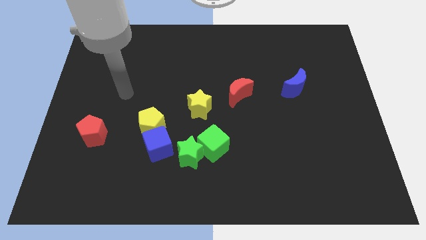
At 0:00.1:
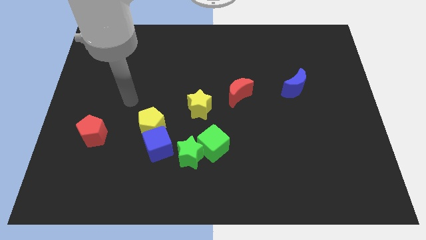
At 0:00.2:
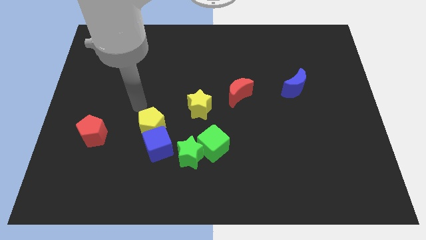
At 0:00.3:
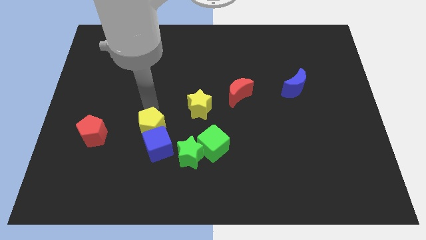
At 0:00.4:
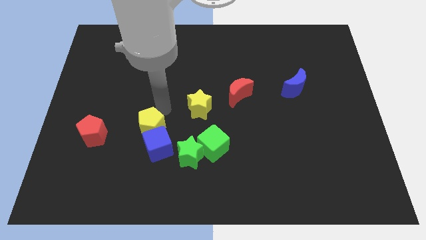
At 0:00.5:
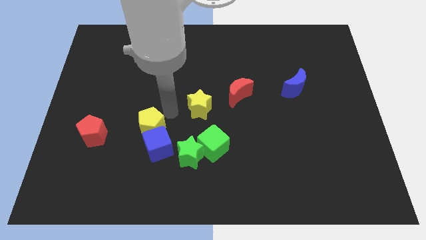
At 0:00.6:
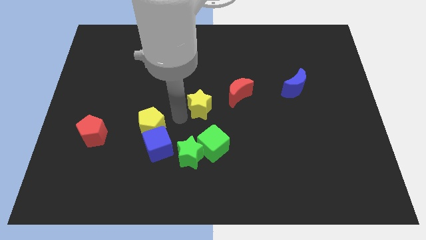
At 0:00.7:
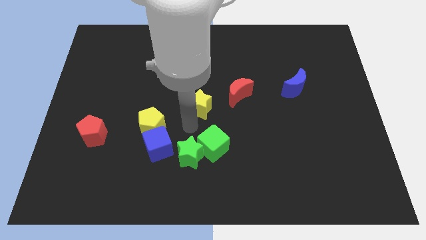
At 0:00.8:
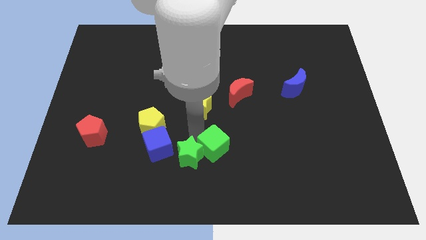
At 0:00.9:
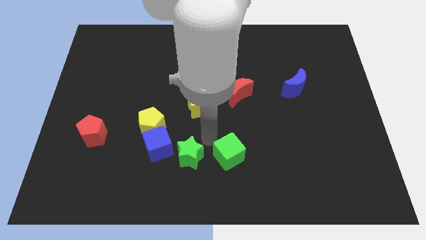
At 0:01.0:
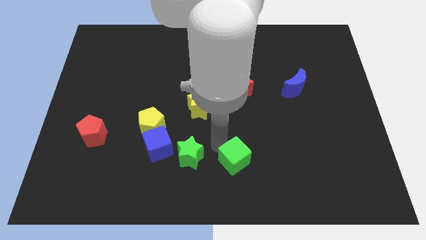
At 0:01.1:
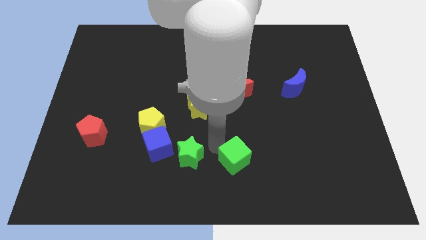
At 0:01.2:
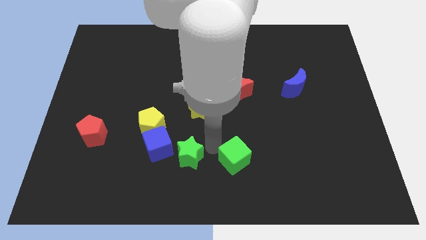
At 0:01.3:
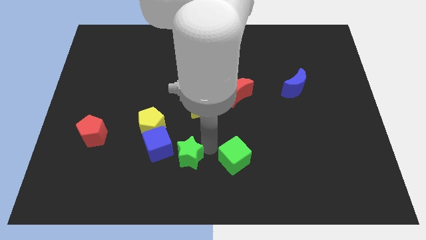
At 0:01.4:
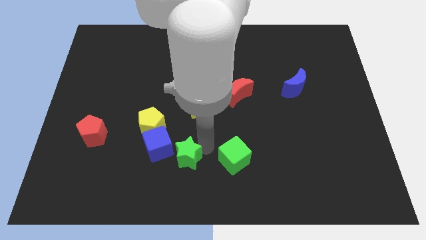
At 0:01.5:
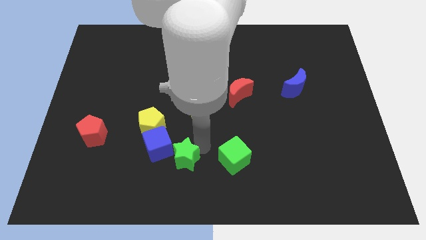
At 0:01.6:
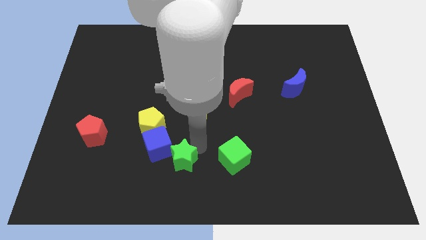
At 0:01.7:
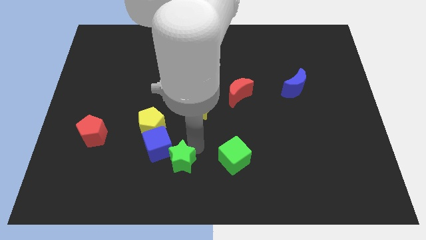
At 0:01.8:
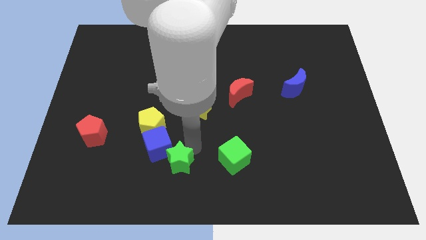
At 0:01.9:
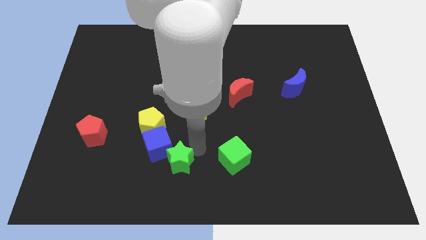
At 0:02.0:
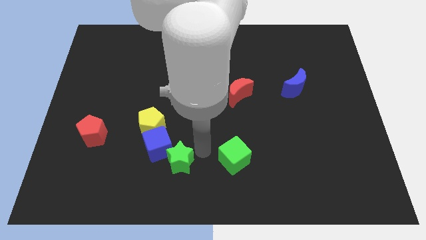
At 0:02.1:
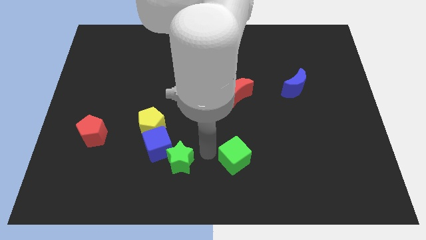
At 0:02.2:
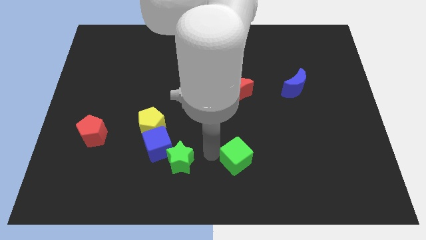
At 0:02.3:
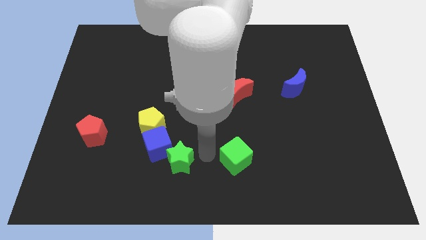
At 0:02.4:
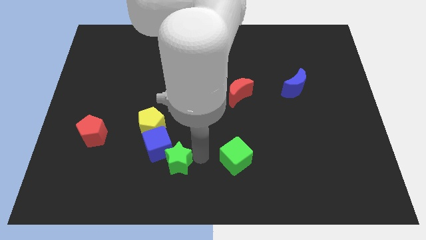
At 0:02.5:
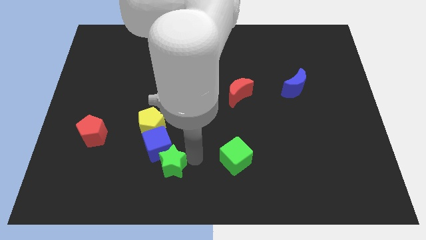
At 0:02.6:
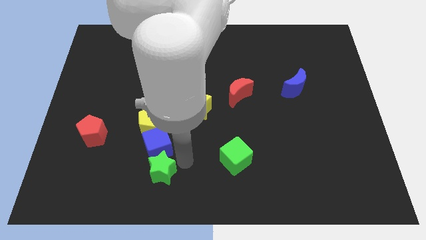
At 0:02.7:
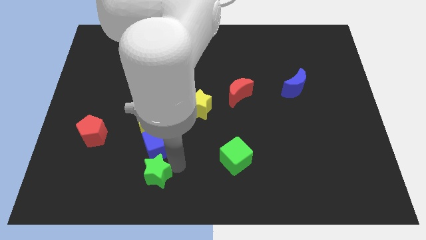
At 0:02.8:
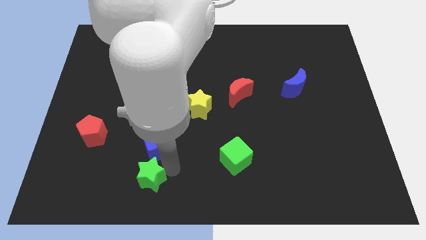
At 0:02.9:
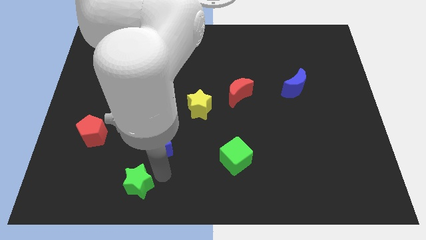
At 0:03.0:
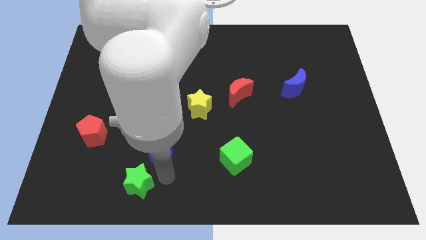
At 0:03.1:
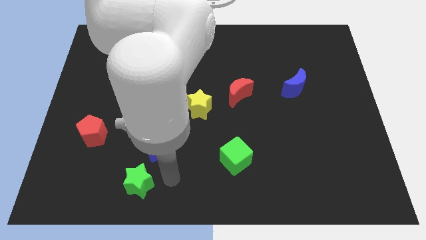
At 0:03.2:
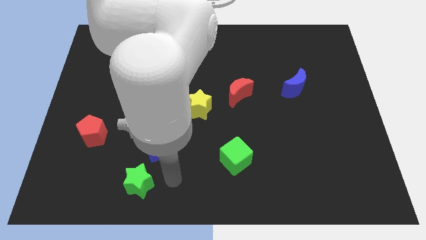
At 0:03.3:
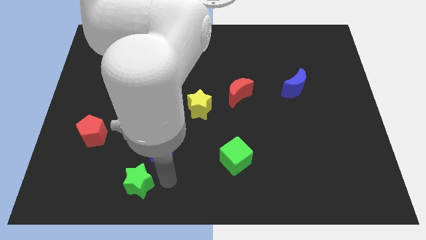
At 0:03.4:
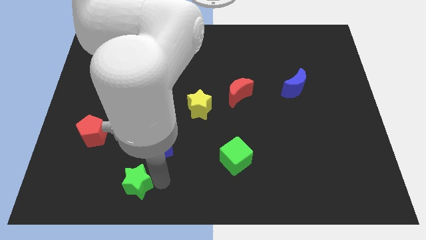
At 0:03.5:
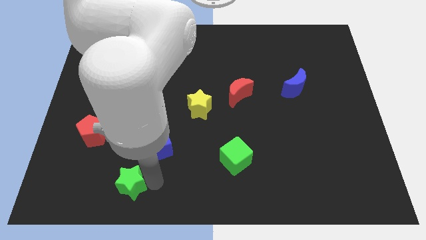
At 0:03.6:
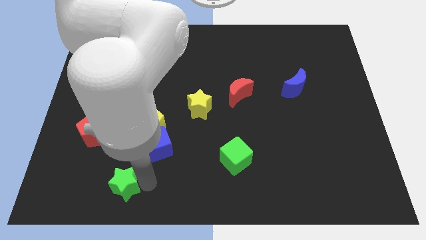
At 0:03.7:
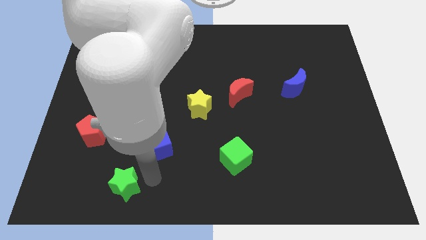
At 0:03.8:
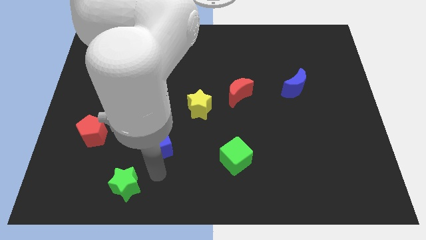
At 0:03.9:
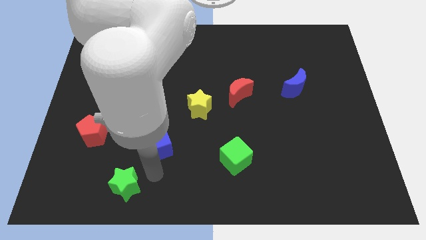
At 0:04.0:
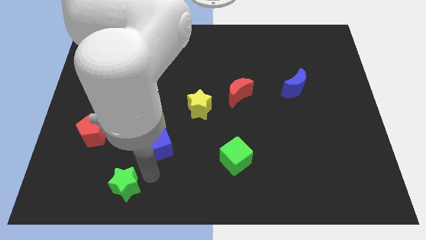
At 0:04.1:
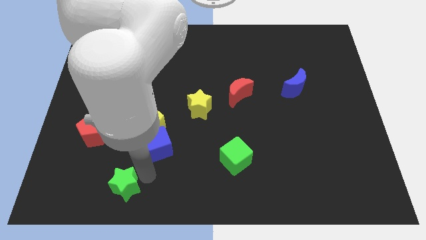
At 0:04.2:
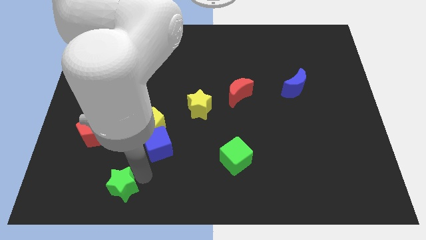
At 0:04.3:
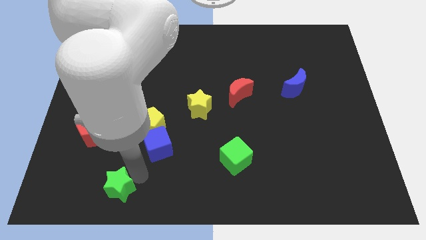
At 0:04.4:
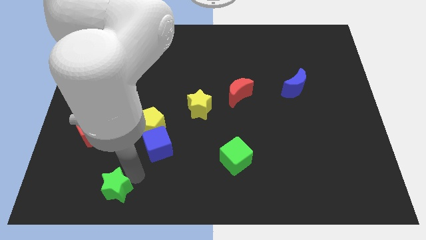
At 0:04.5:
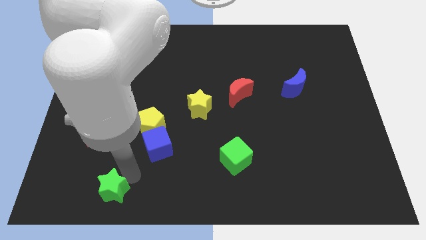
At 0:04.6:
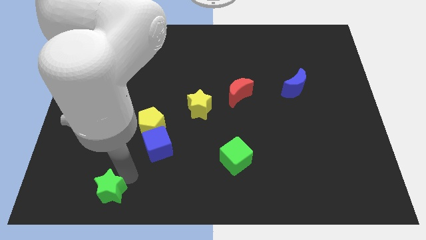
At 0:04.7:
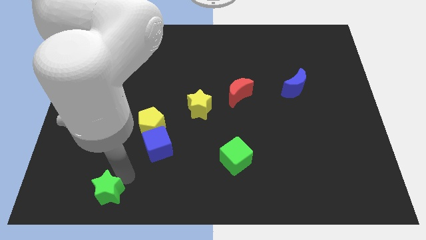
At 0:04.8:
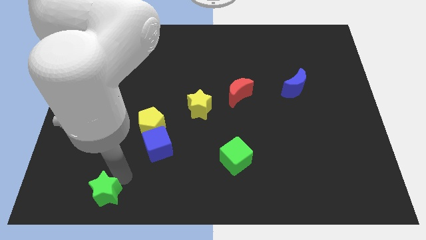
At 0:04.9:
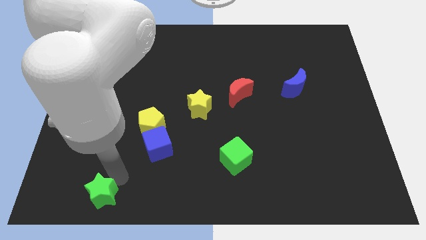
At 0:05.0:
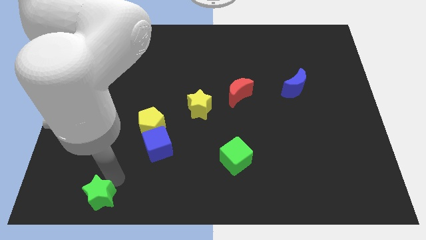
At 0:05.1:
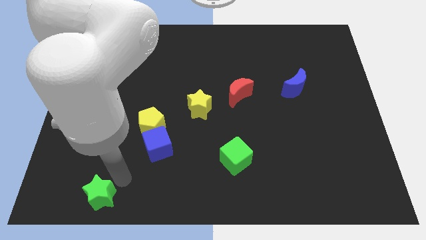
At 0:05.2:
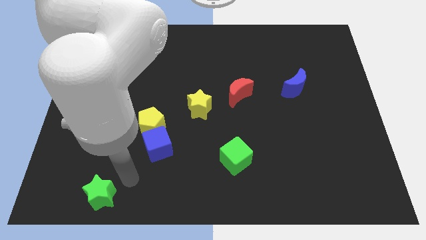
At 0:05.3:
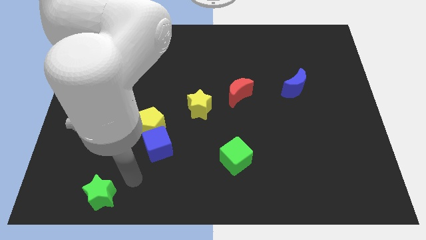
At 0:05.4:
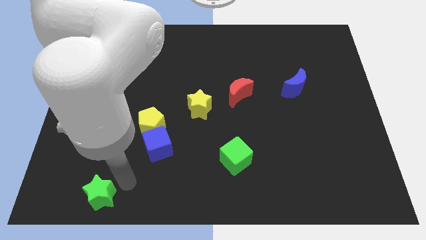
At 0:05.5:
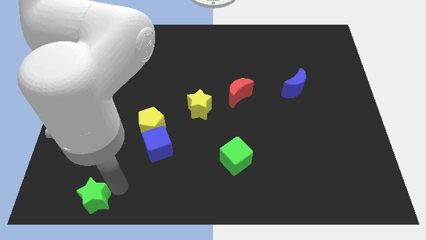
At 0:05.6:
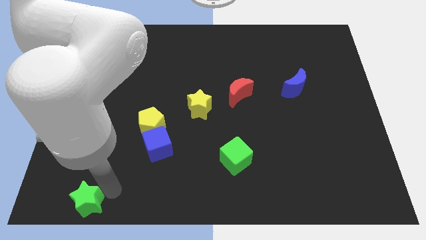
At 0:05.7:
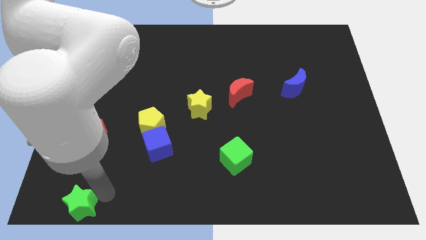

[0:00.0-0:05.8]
move the green star to the lower left corner

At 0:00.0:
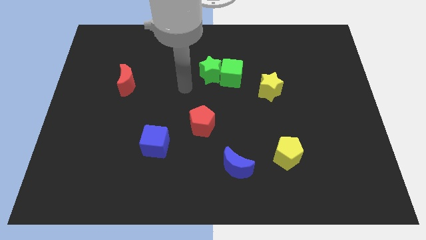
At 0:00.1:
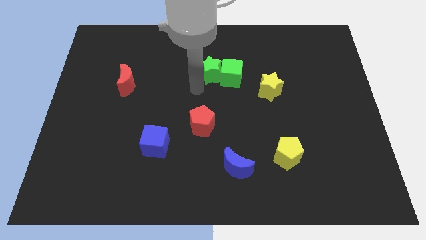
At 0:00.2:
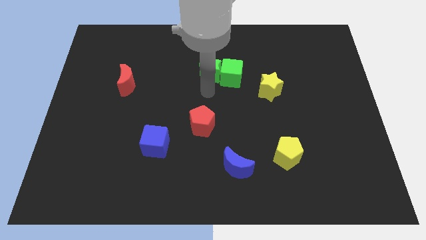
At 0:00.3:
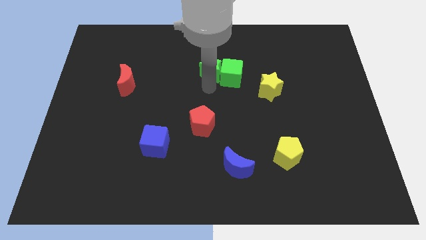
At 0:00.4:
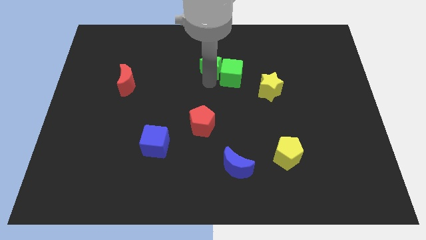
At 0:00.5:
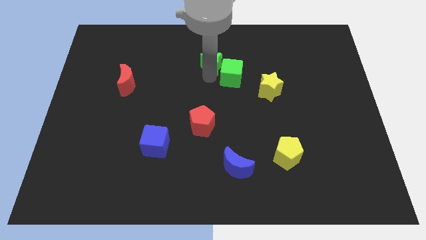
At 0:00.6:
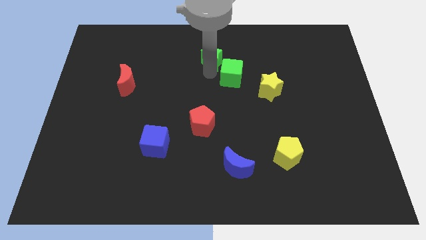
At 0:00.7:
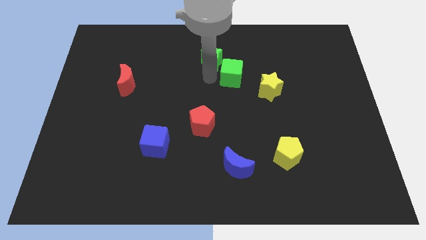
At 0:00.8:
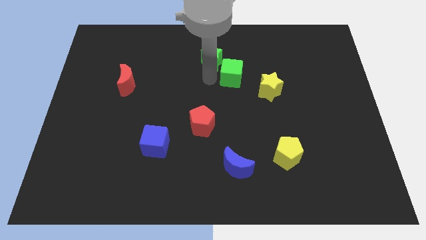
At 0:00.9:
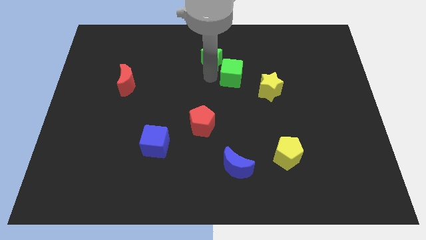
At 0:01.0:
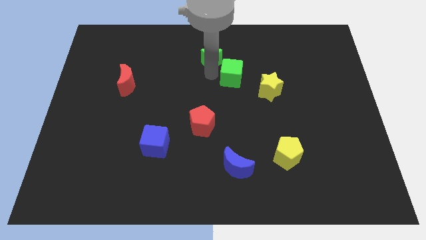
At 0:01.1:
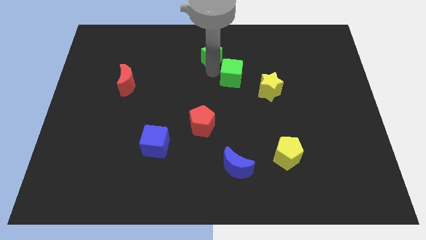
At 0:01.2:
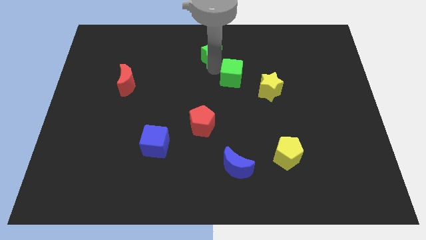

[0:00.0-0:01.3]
slide the green star to the towards your base
